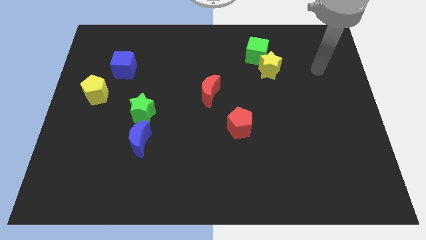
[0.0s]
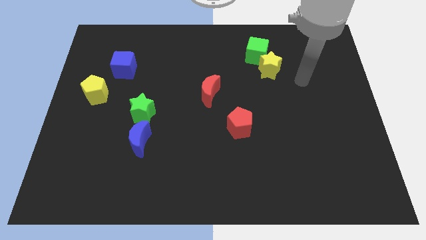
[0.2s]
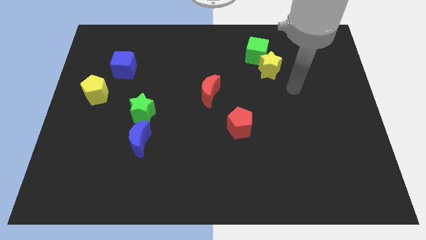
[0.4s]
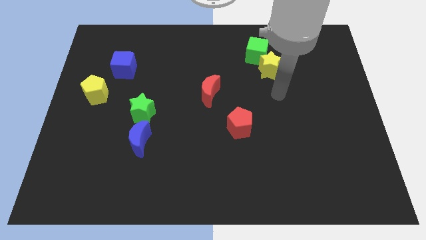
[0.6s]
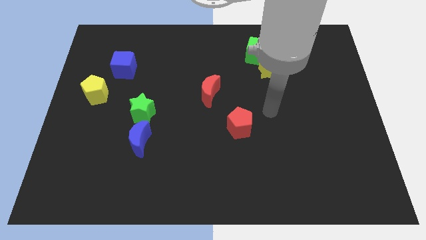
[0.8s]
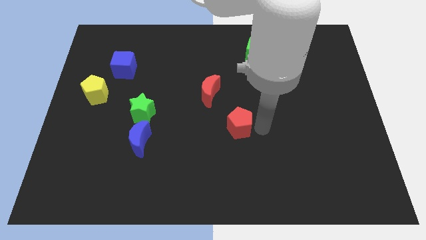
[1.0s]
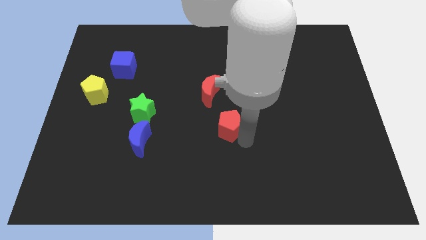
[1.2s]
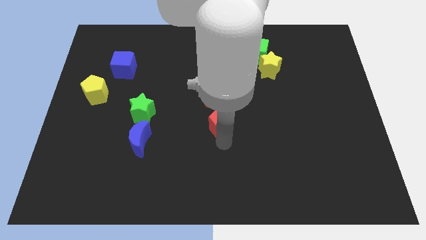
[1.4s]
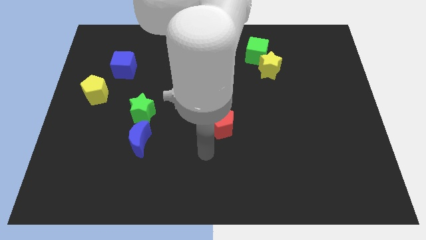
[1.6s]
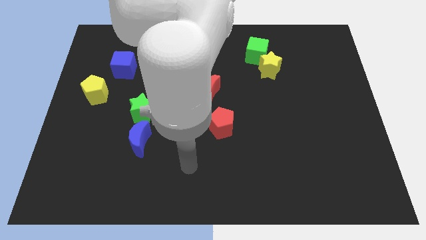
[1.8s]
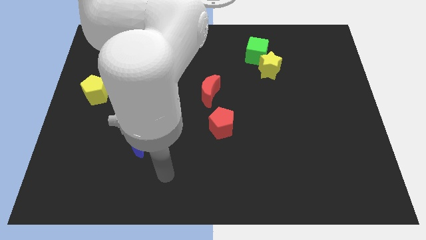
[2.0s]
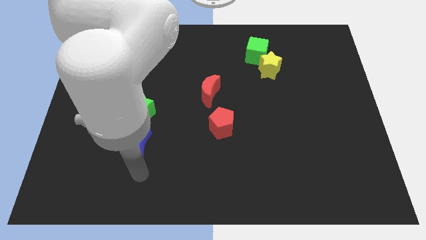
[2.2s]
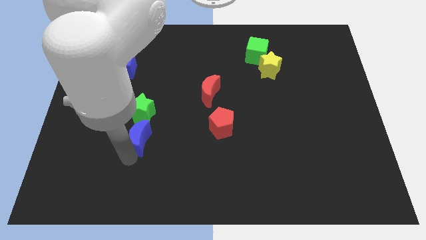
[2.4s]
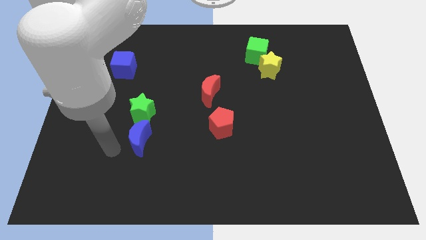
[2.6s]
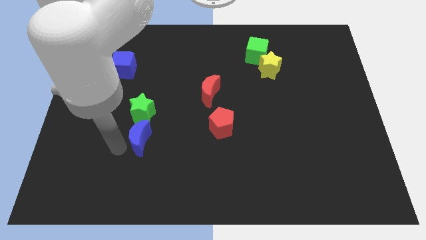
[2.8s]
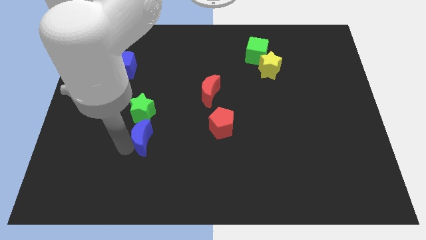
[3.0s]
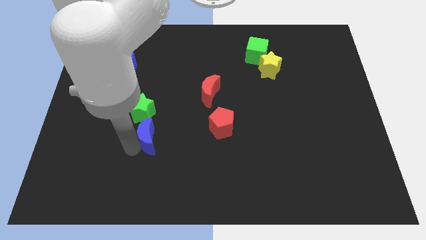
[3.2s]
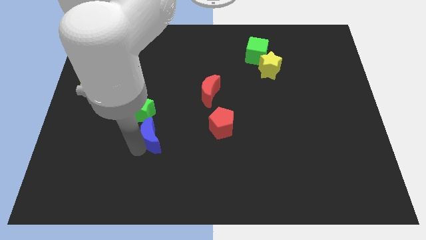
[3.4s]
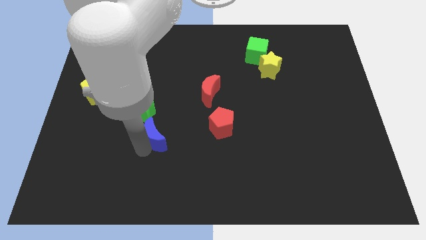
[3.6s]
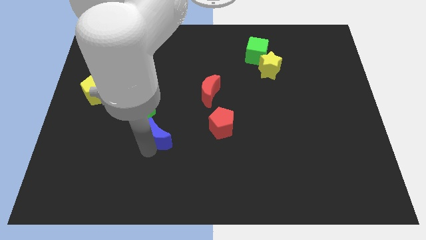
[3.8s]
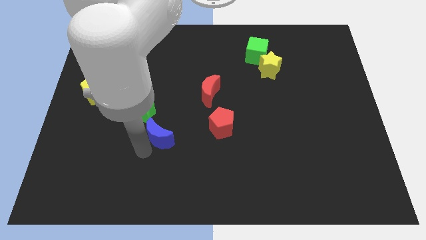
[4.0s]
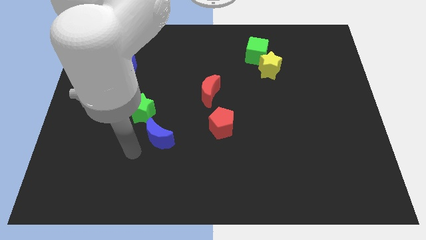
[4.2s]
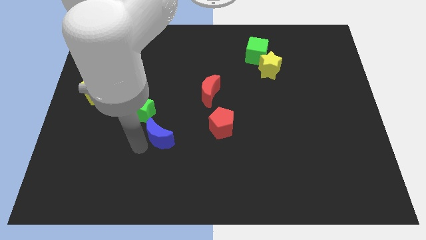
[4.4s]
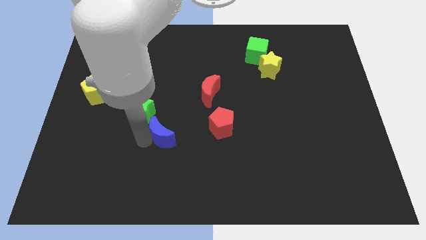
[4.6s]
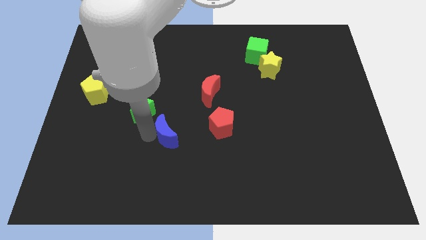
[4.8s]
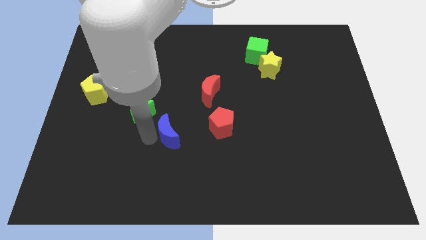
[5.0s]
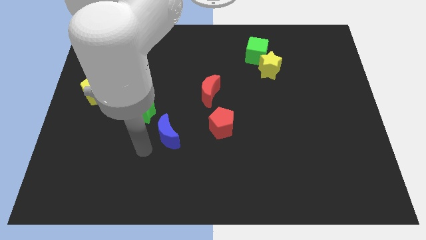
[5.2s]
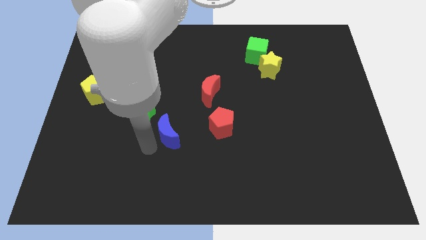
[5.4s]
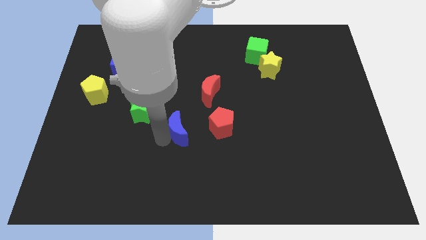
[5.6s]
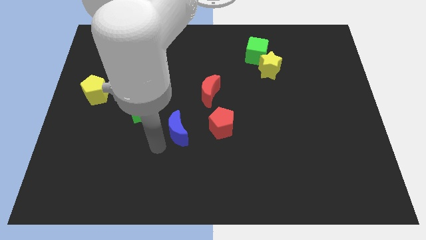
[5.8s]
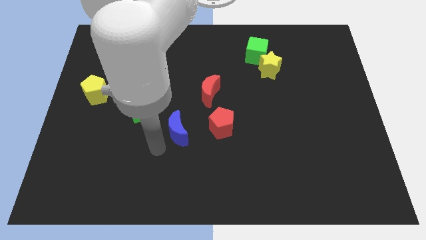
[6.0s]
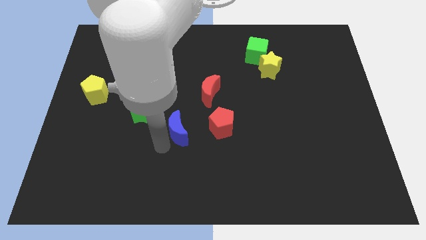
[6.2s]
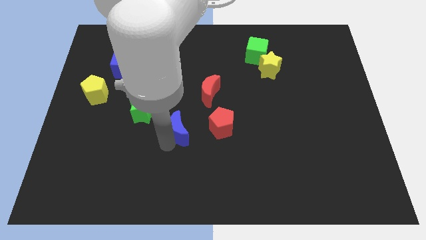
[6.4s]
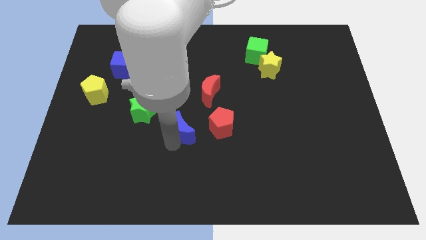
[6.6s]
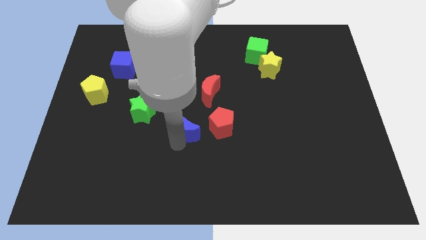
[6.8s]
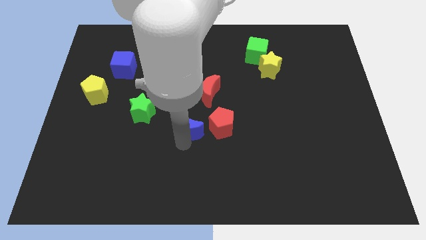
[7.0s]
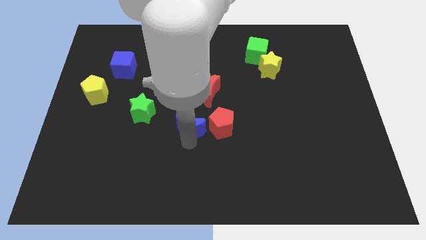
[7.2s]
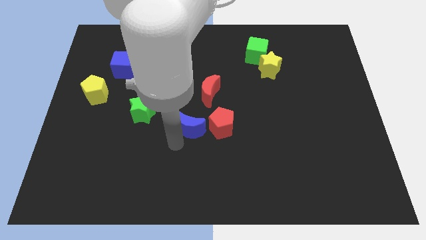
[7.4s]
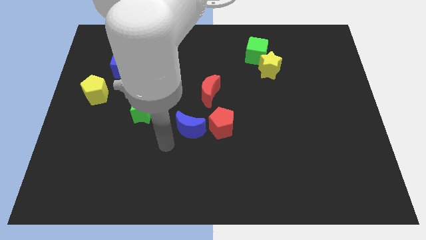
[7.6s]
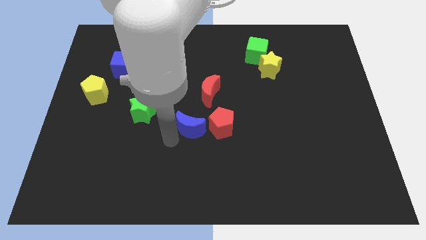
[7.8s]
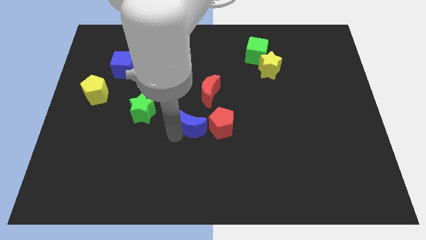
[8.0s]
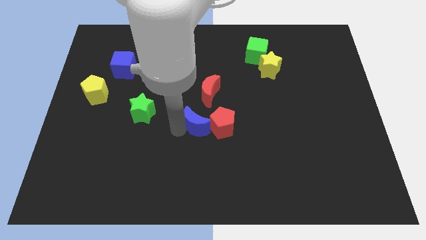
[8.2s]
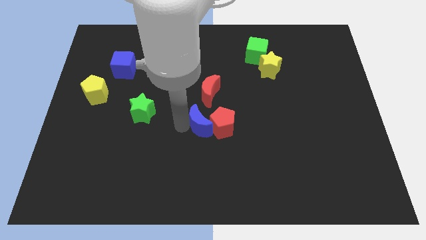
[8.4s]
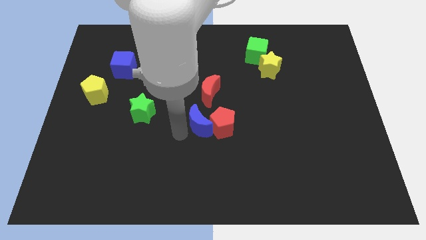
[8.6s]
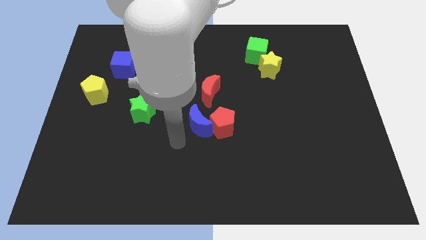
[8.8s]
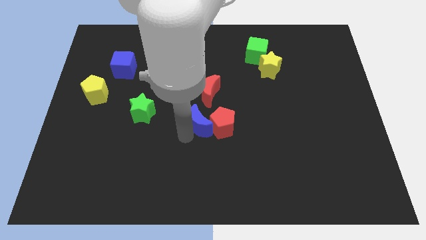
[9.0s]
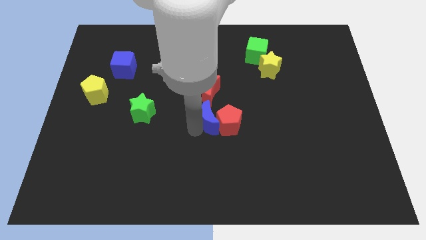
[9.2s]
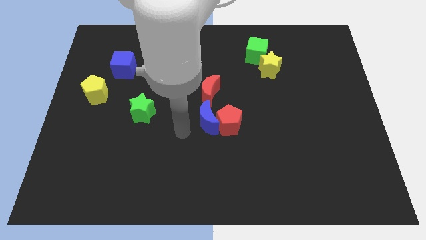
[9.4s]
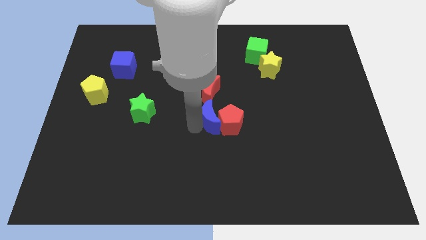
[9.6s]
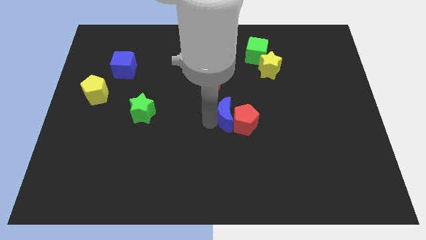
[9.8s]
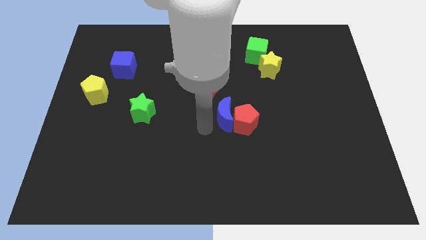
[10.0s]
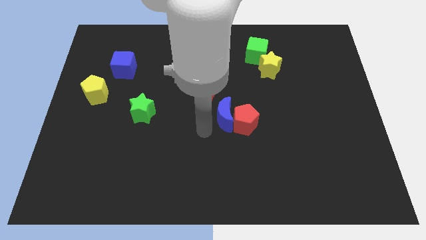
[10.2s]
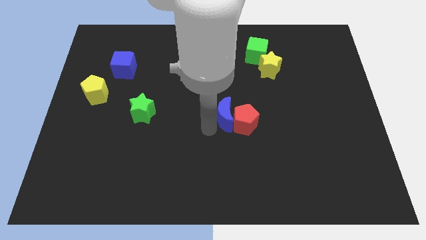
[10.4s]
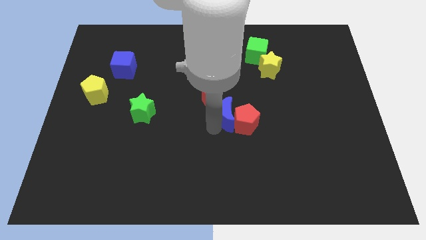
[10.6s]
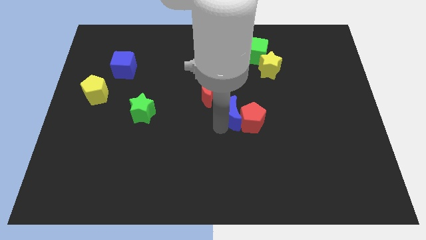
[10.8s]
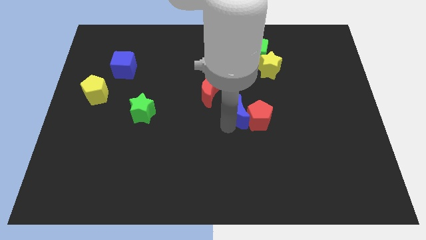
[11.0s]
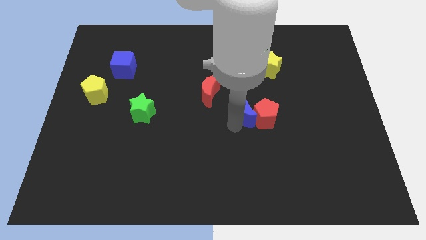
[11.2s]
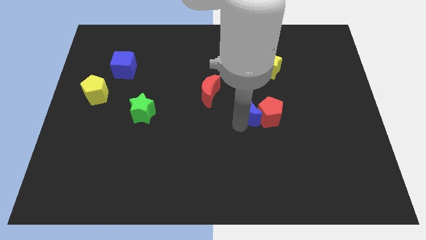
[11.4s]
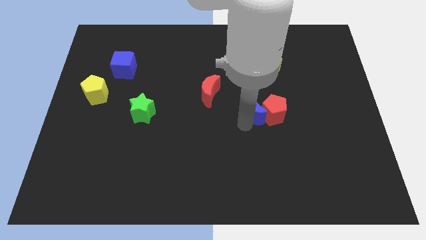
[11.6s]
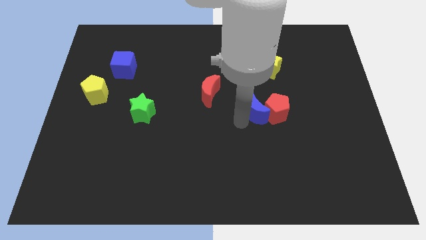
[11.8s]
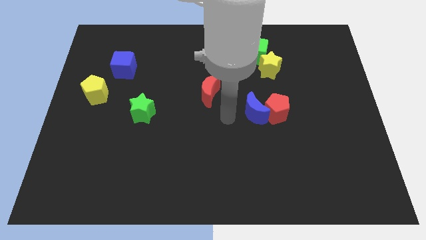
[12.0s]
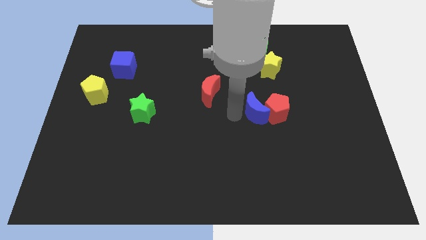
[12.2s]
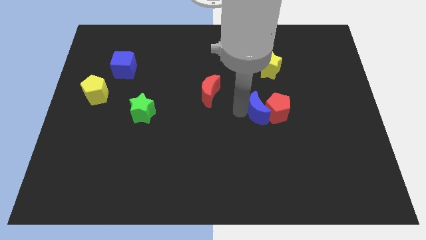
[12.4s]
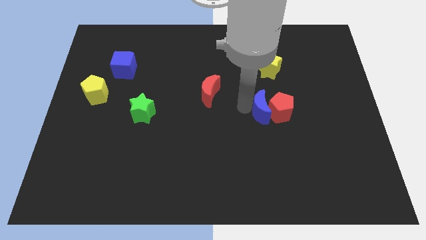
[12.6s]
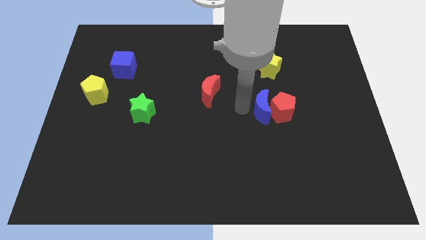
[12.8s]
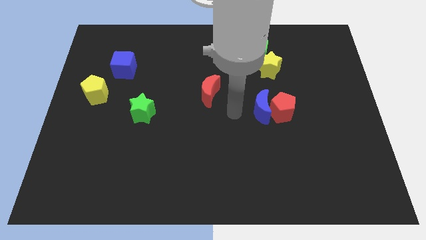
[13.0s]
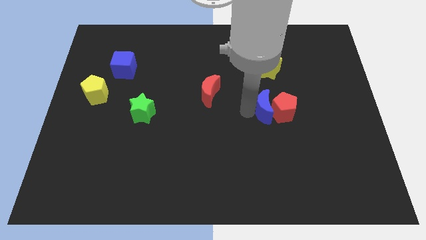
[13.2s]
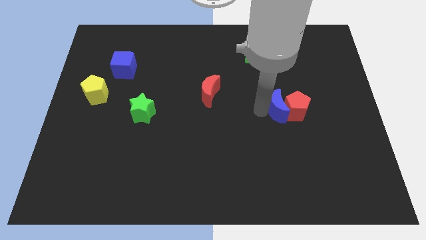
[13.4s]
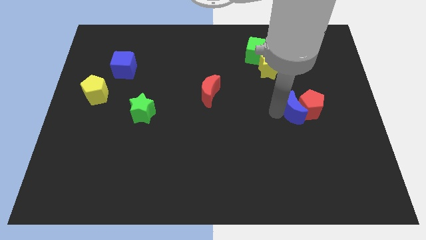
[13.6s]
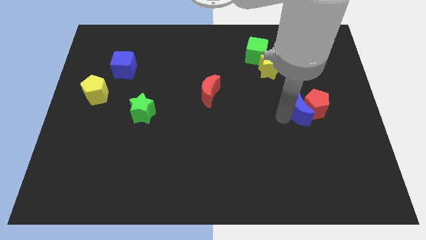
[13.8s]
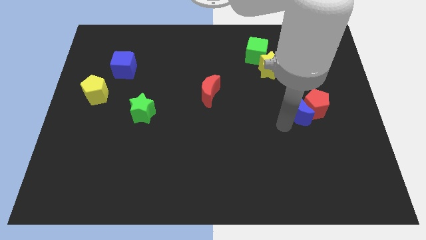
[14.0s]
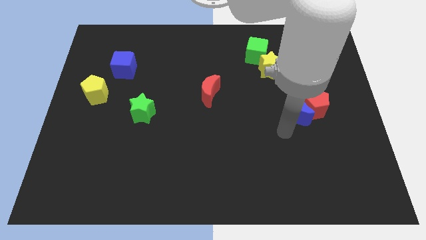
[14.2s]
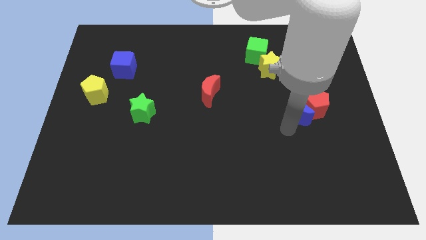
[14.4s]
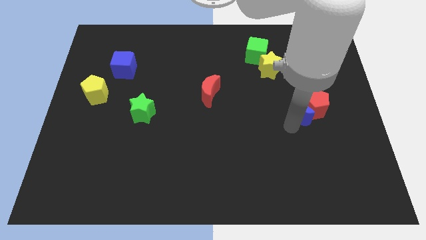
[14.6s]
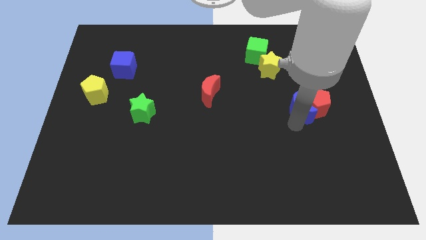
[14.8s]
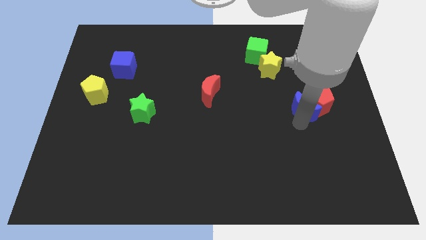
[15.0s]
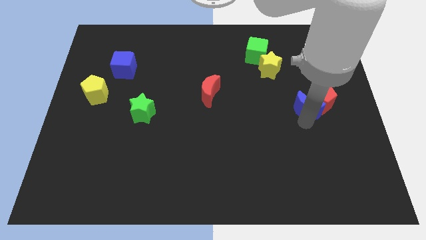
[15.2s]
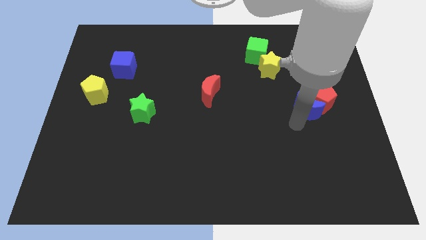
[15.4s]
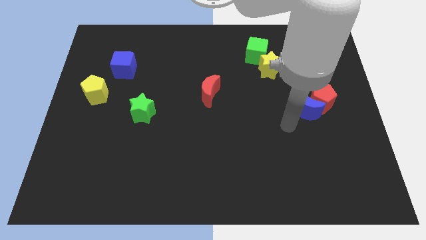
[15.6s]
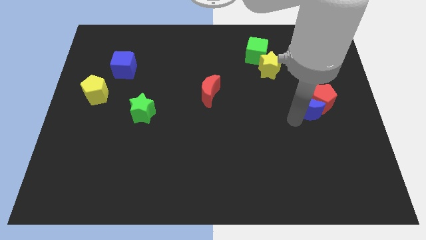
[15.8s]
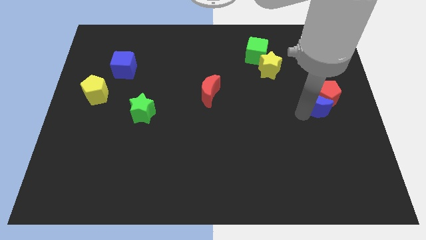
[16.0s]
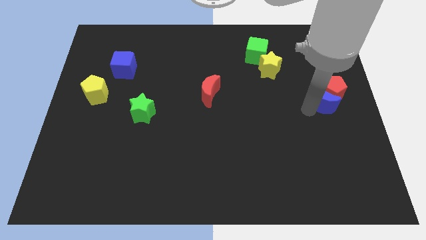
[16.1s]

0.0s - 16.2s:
put the blue moon to the right side of the board
